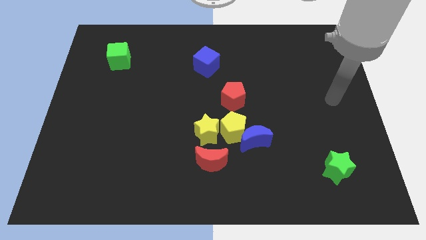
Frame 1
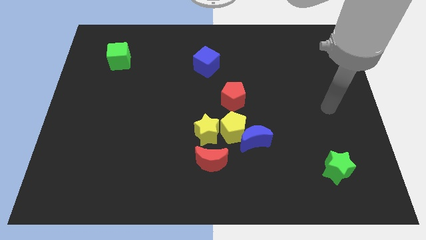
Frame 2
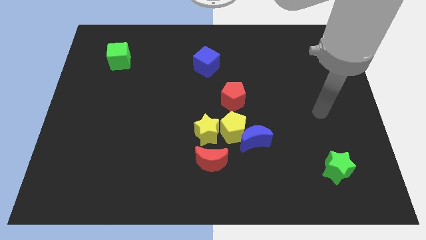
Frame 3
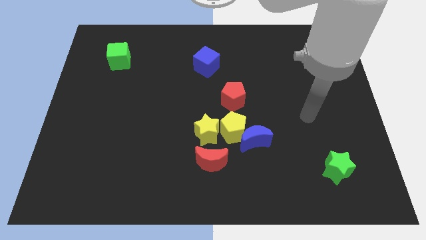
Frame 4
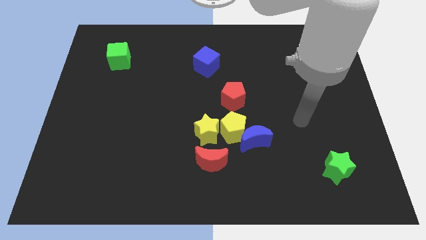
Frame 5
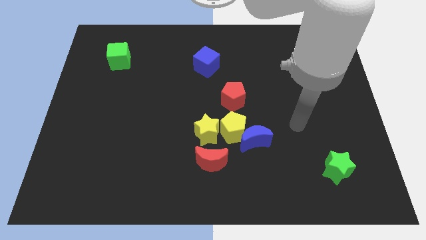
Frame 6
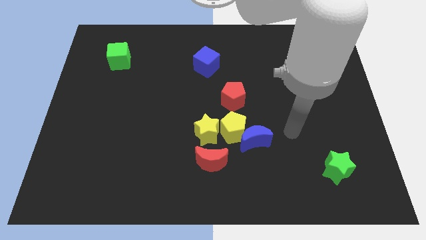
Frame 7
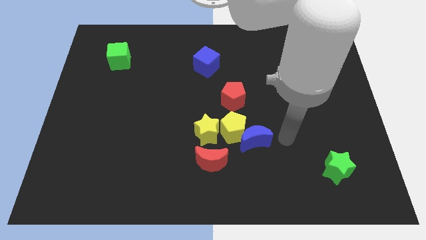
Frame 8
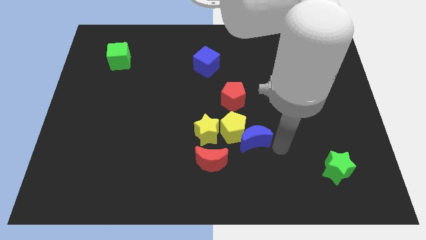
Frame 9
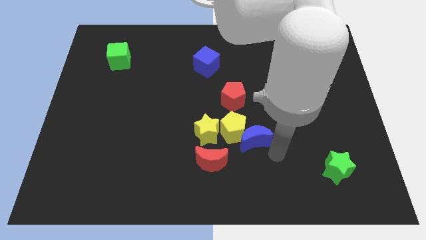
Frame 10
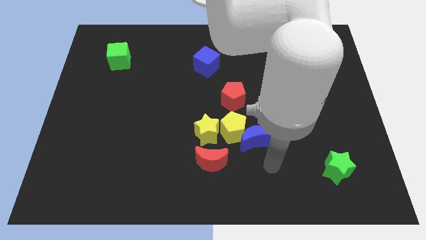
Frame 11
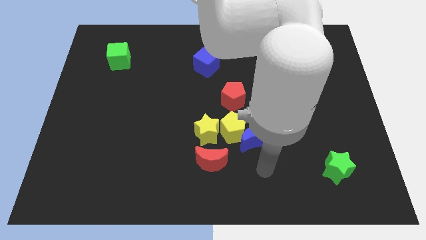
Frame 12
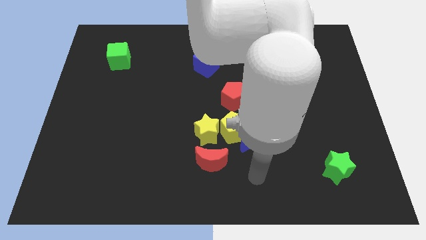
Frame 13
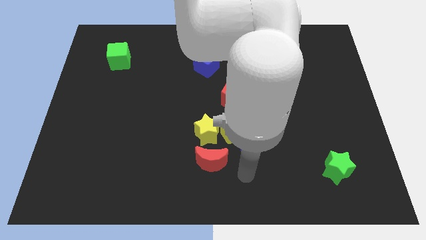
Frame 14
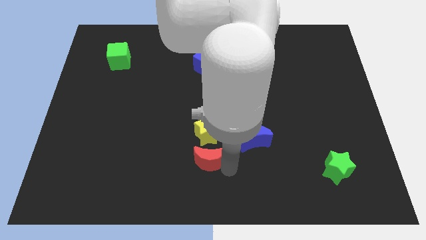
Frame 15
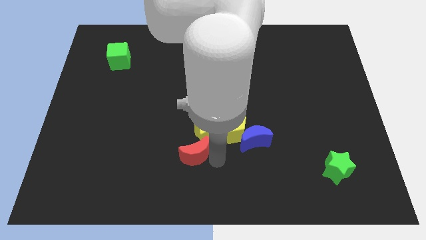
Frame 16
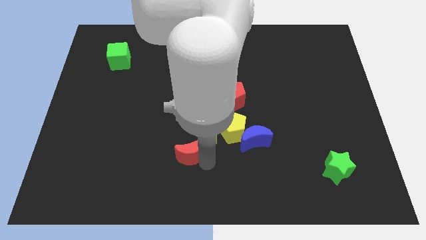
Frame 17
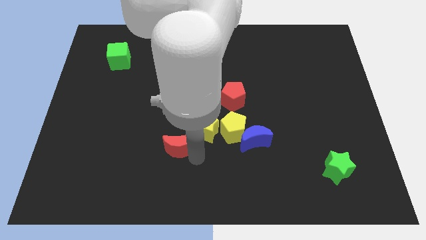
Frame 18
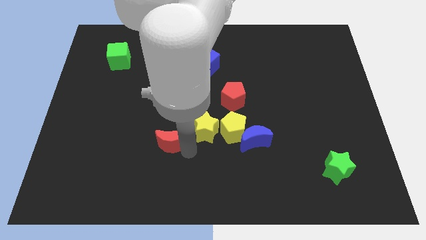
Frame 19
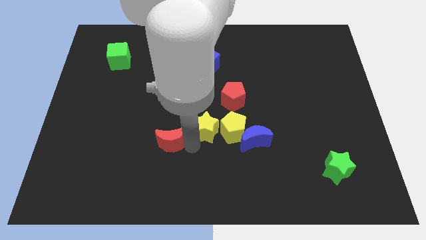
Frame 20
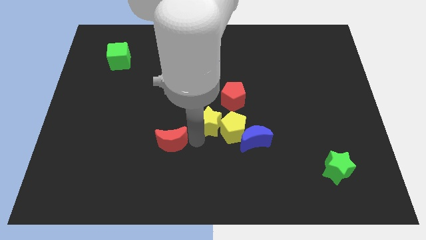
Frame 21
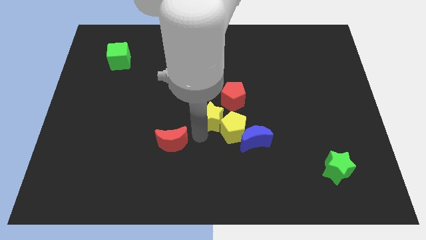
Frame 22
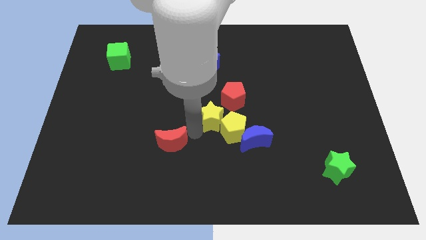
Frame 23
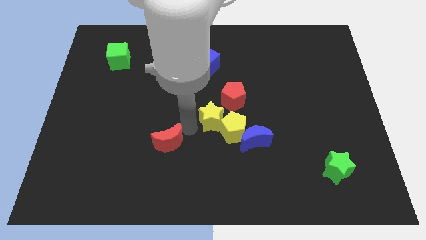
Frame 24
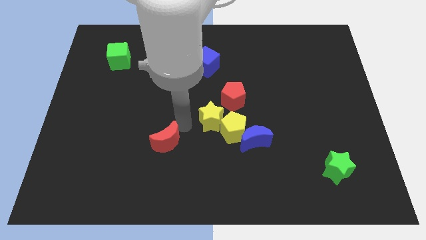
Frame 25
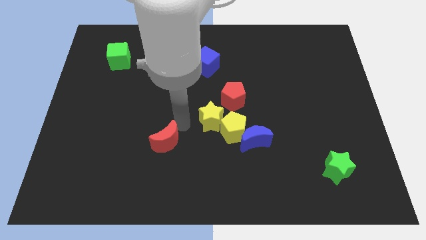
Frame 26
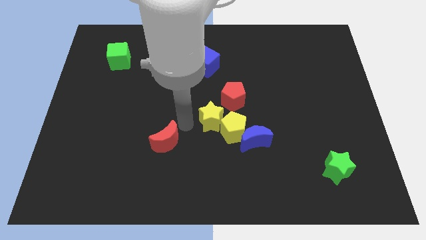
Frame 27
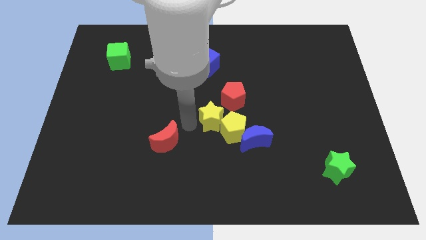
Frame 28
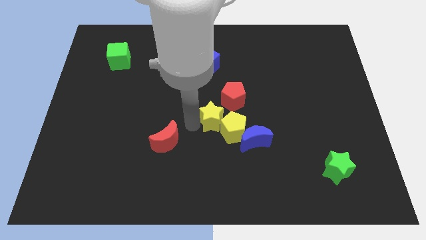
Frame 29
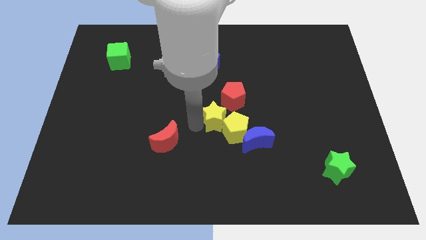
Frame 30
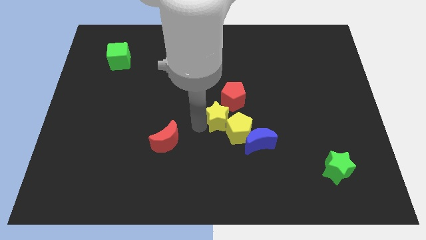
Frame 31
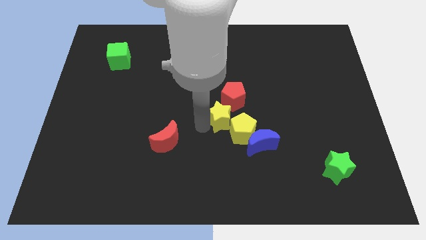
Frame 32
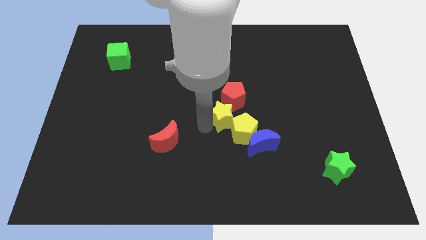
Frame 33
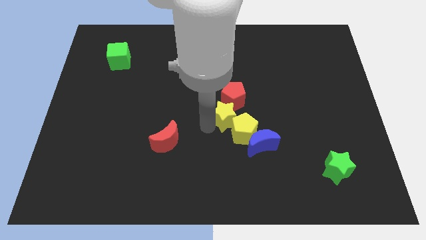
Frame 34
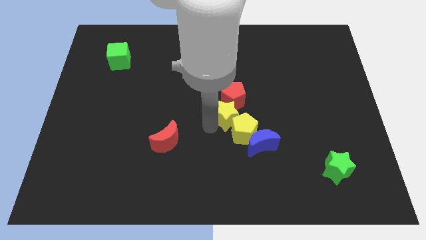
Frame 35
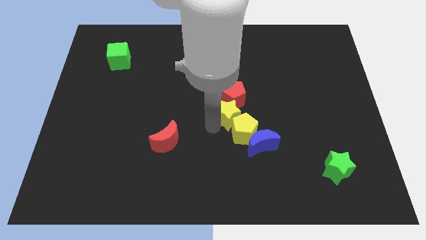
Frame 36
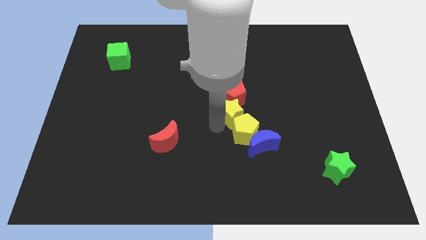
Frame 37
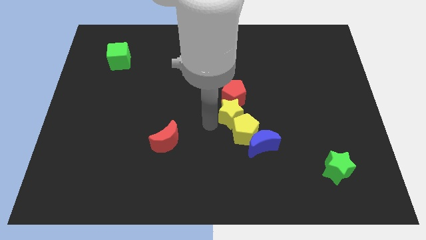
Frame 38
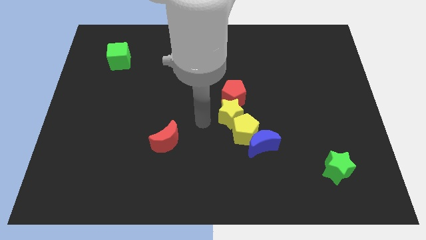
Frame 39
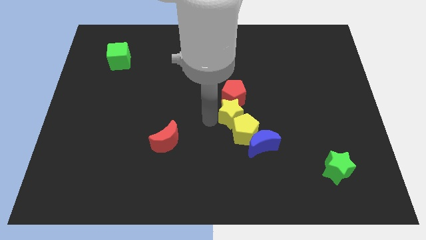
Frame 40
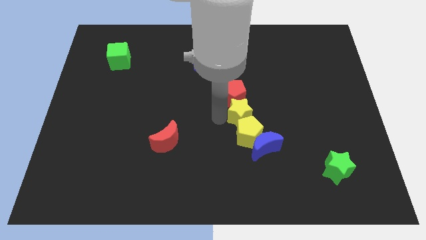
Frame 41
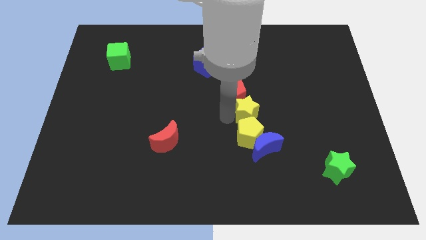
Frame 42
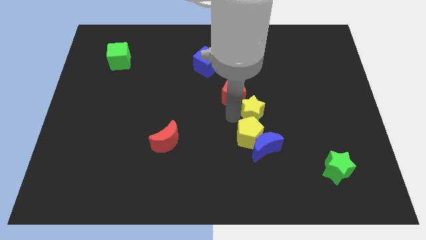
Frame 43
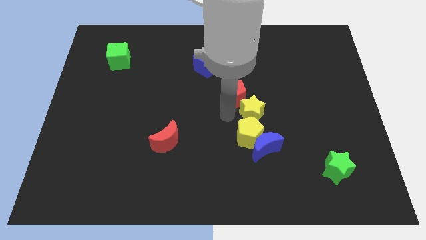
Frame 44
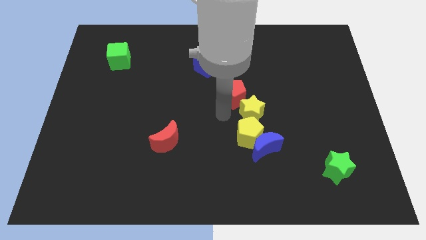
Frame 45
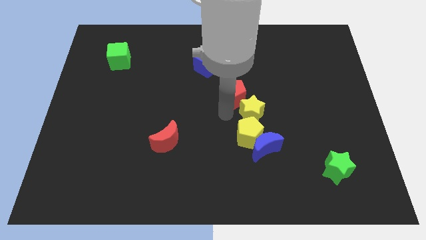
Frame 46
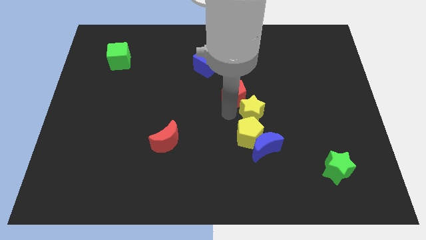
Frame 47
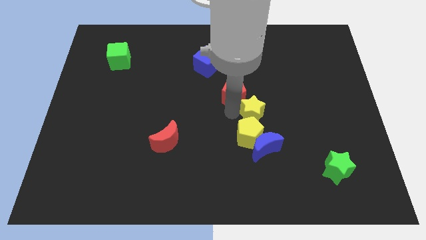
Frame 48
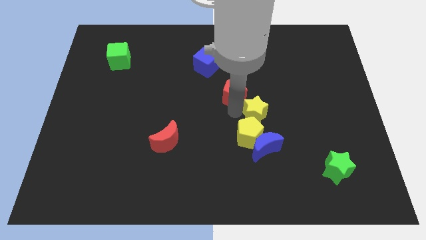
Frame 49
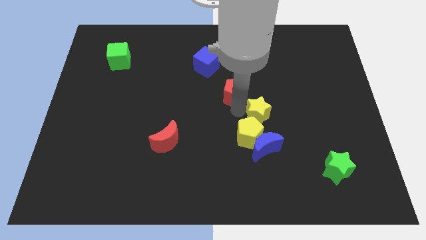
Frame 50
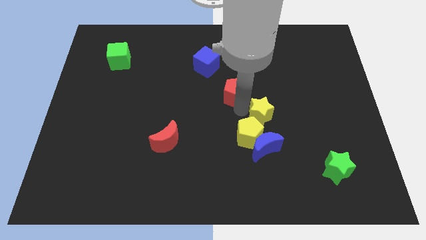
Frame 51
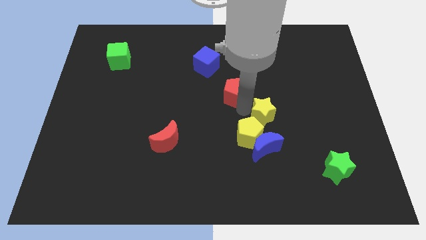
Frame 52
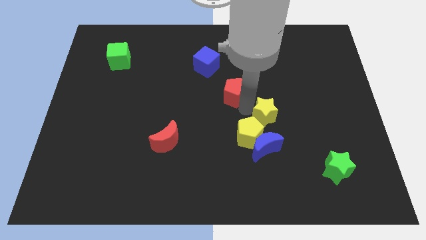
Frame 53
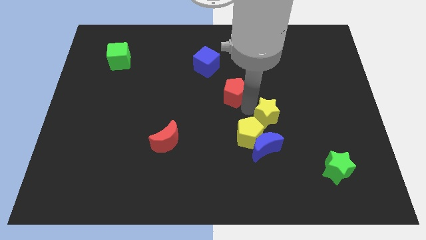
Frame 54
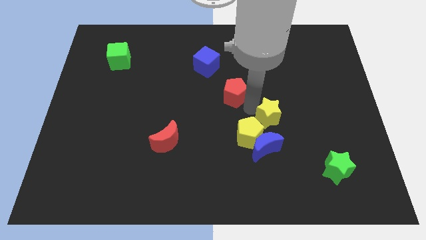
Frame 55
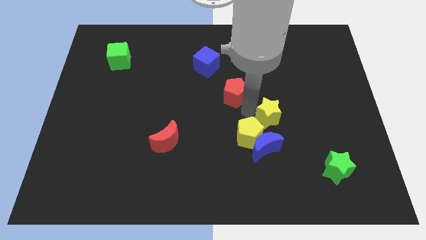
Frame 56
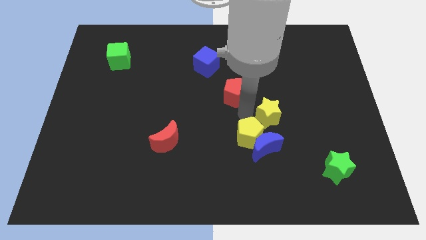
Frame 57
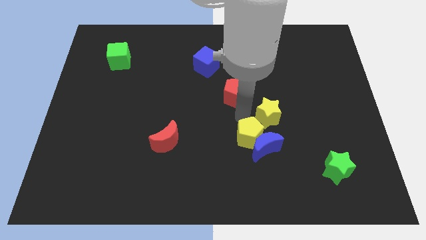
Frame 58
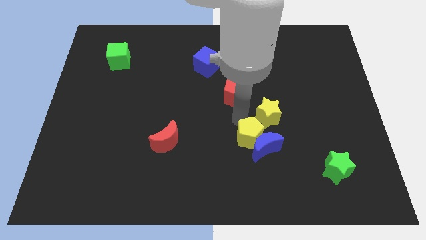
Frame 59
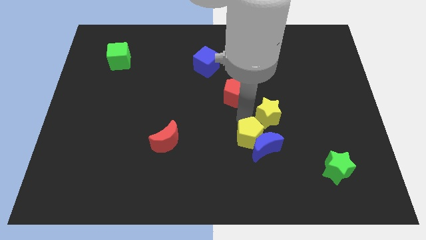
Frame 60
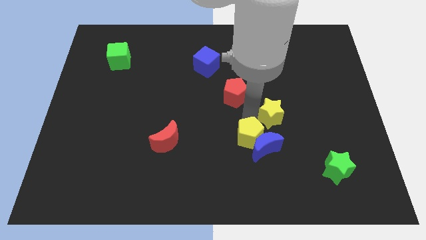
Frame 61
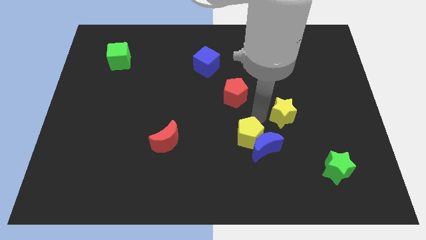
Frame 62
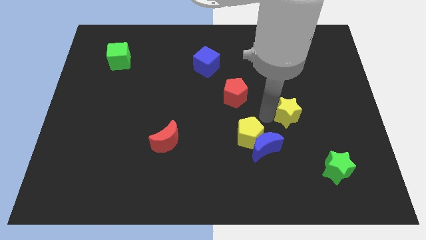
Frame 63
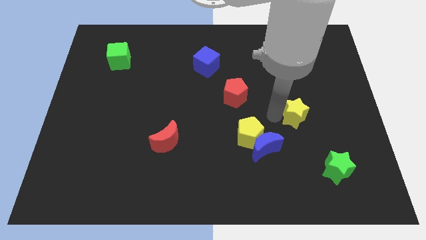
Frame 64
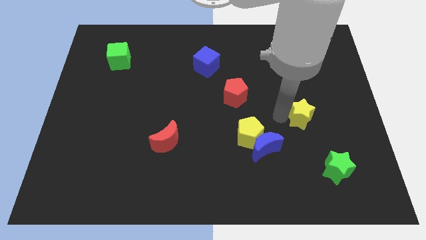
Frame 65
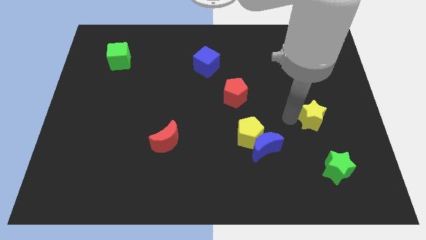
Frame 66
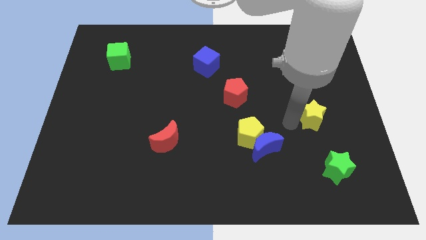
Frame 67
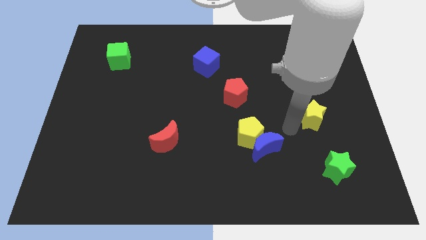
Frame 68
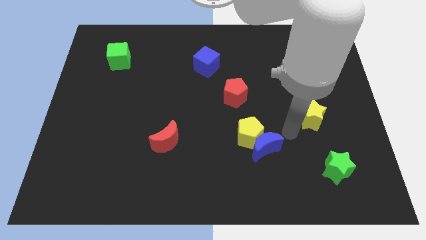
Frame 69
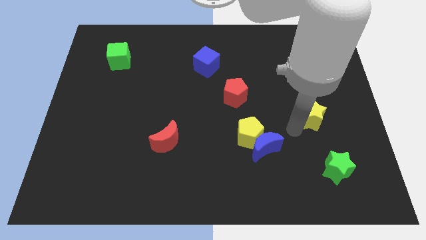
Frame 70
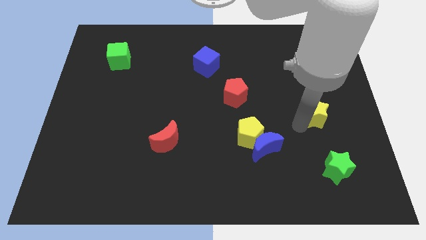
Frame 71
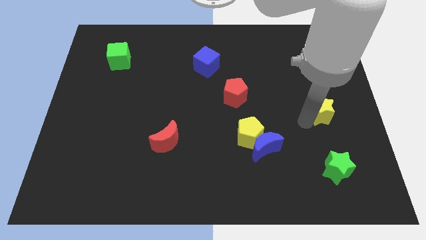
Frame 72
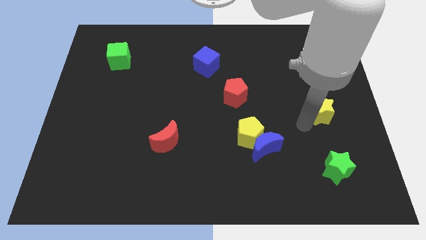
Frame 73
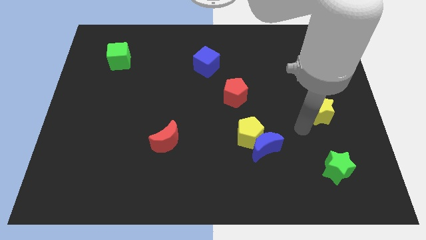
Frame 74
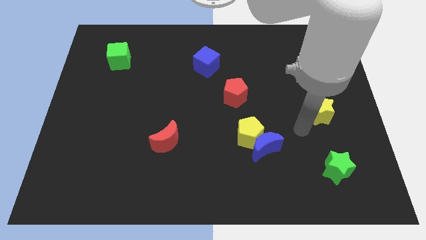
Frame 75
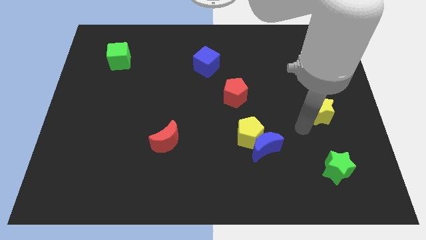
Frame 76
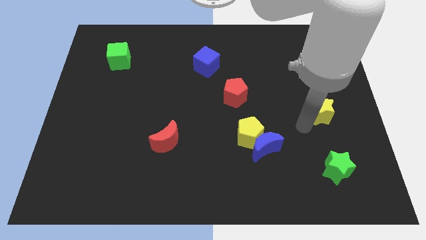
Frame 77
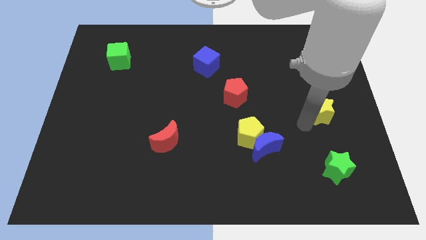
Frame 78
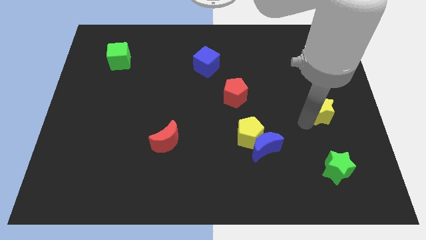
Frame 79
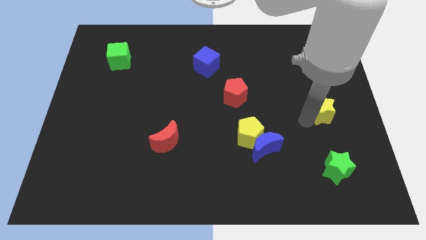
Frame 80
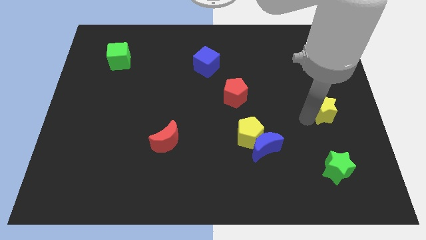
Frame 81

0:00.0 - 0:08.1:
put the yellow star to the right side

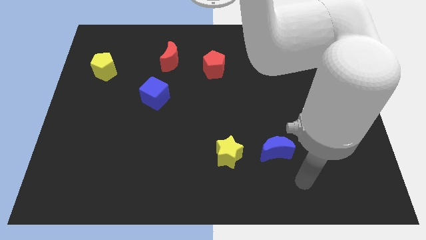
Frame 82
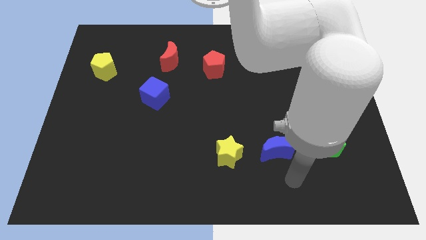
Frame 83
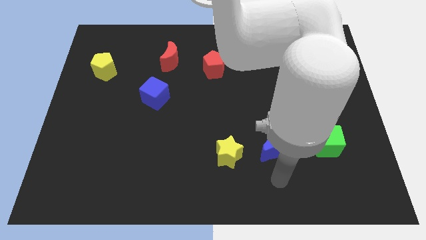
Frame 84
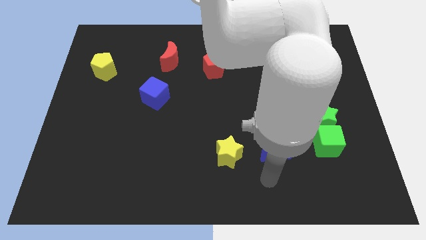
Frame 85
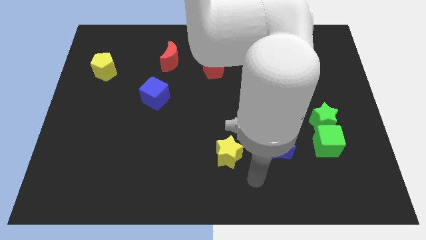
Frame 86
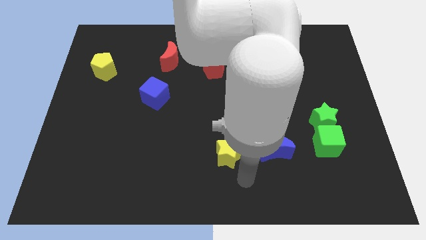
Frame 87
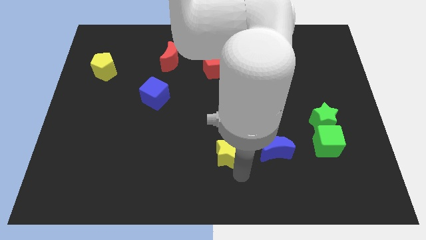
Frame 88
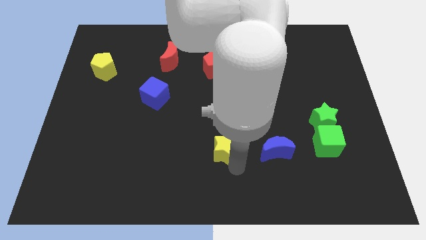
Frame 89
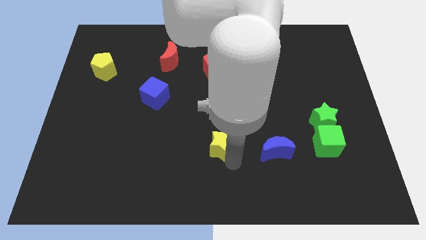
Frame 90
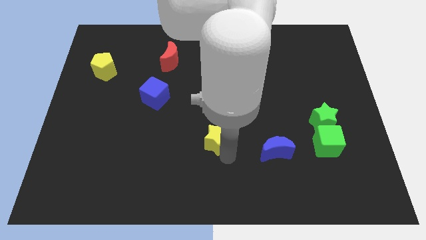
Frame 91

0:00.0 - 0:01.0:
slide the yellow star to the middle of the board
